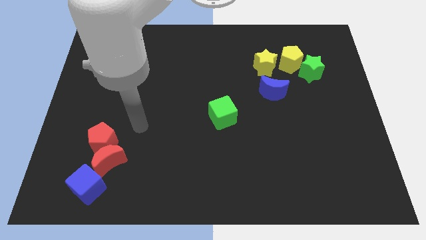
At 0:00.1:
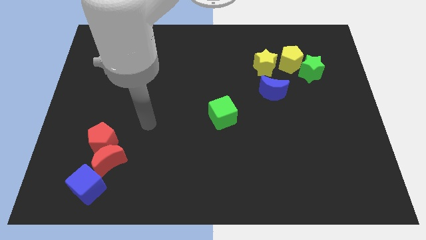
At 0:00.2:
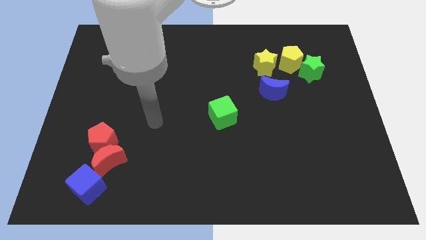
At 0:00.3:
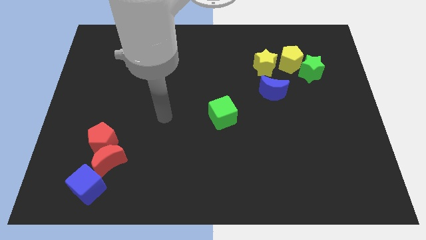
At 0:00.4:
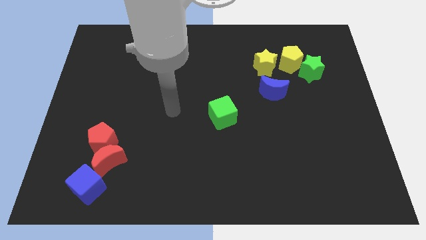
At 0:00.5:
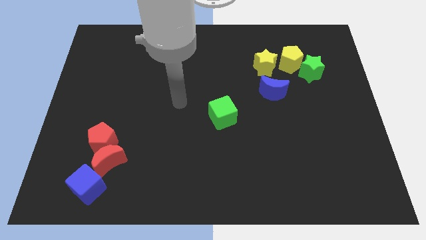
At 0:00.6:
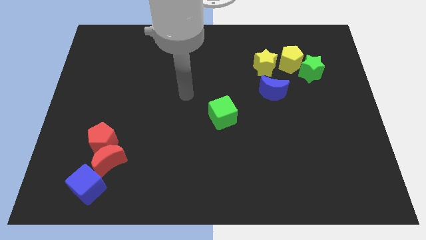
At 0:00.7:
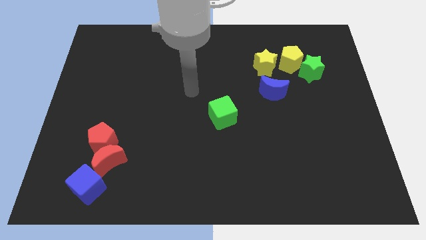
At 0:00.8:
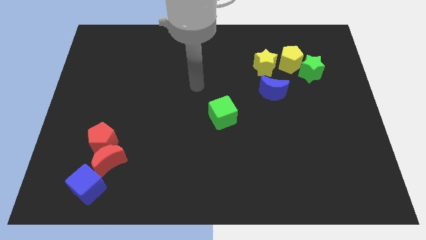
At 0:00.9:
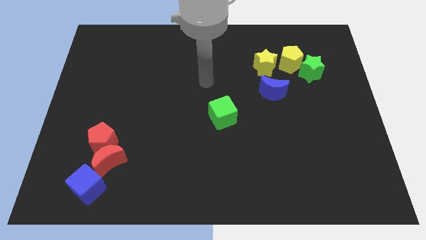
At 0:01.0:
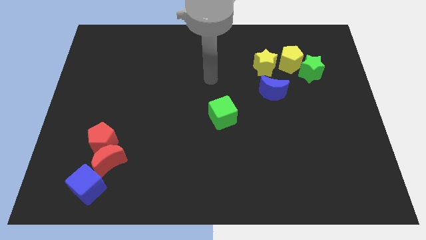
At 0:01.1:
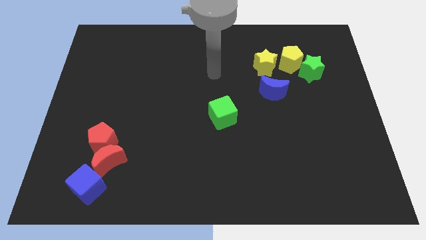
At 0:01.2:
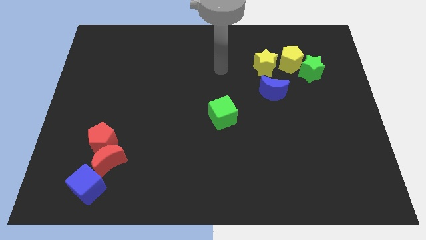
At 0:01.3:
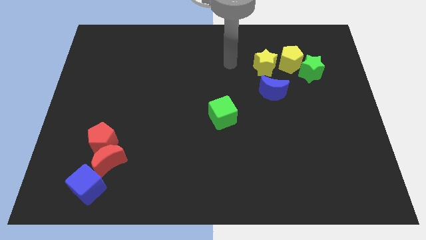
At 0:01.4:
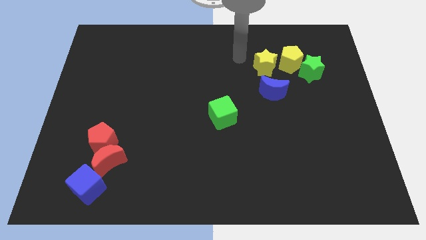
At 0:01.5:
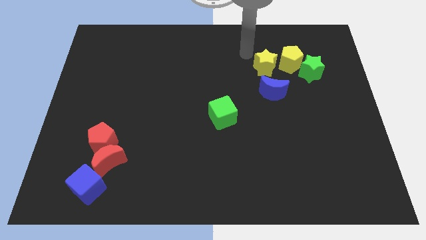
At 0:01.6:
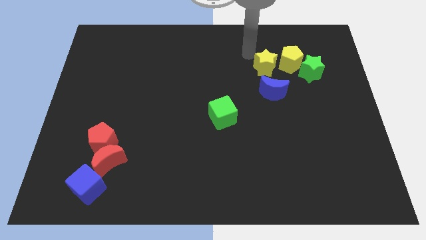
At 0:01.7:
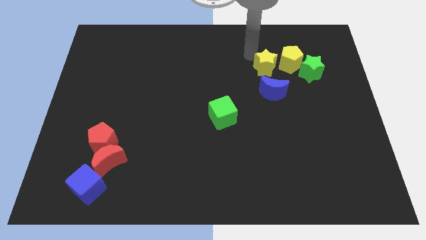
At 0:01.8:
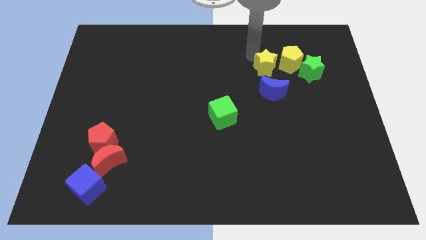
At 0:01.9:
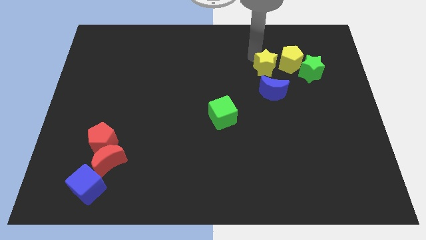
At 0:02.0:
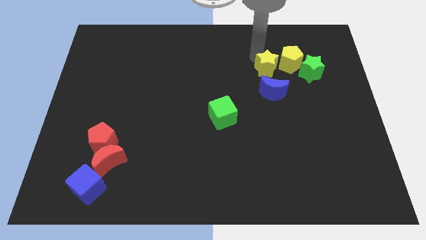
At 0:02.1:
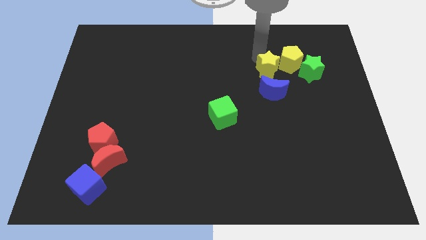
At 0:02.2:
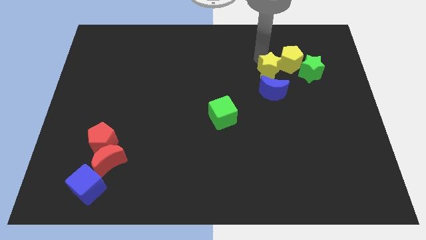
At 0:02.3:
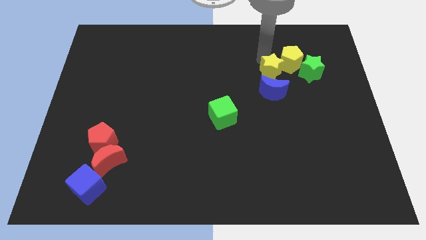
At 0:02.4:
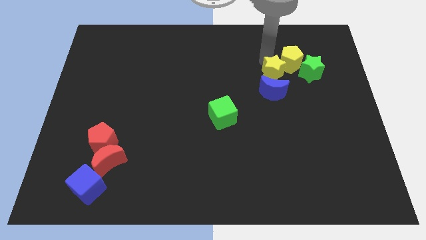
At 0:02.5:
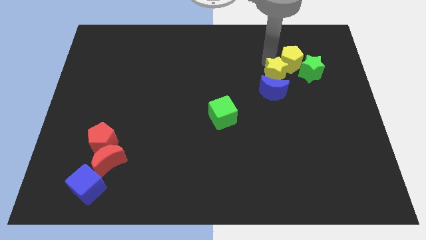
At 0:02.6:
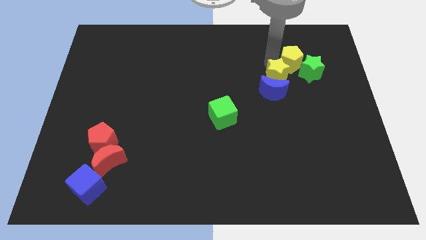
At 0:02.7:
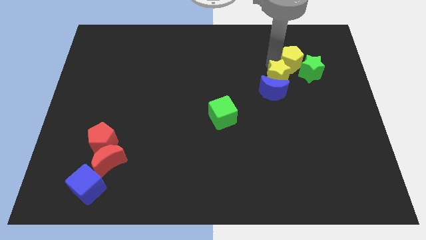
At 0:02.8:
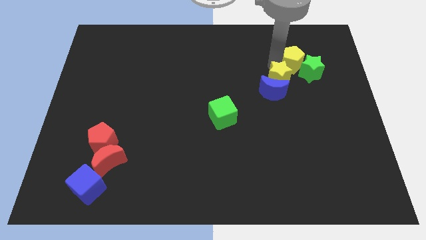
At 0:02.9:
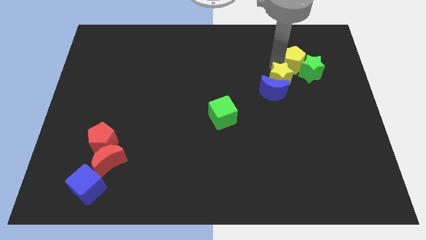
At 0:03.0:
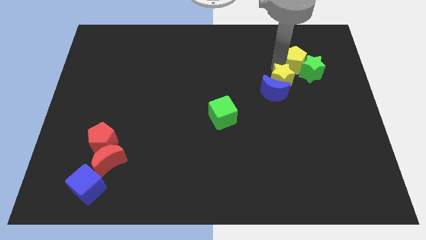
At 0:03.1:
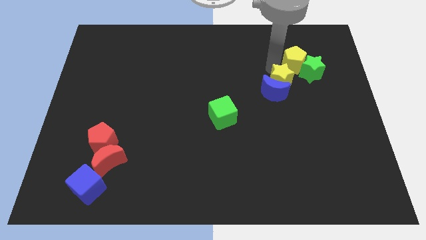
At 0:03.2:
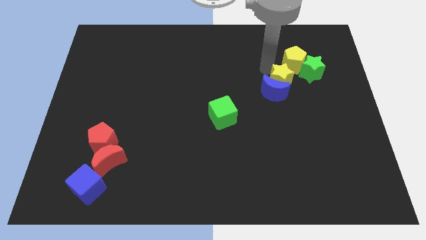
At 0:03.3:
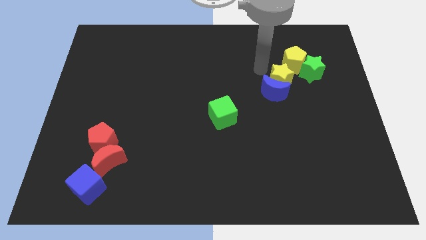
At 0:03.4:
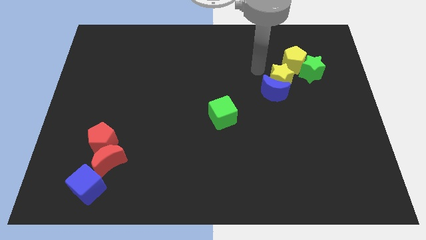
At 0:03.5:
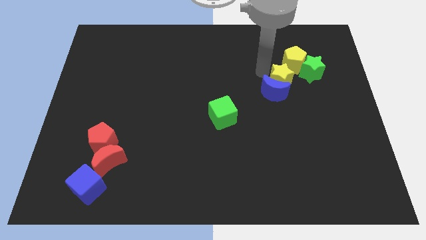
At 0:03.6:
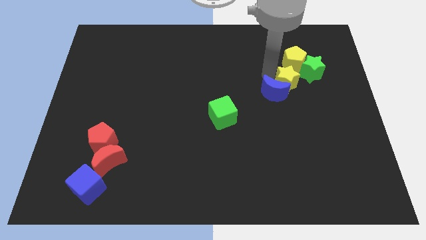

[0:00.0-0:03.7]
slightly move the yellow star downwards and to the right diagonally

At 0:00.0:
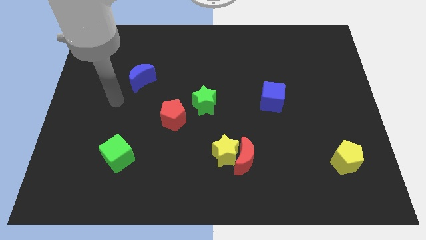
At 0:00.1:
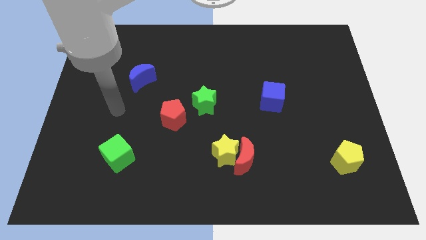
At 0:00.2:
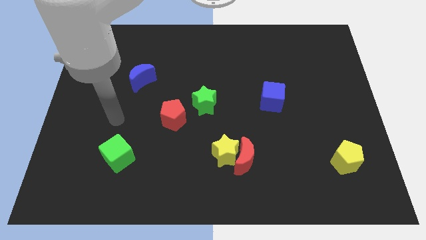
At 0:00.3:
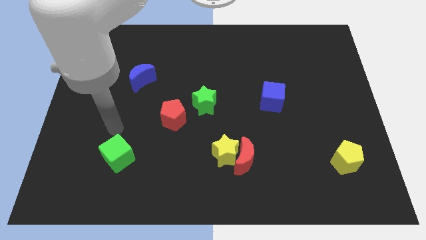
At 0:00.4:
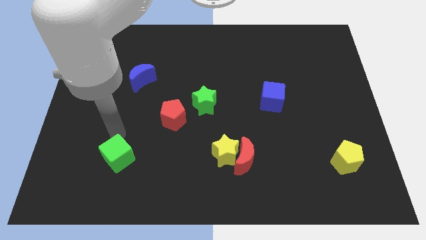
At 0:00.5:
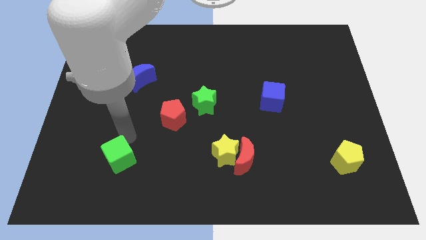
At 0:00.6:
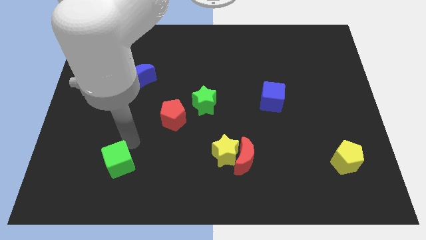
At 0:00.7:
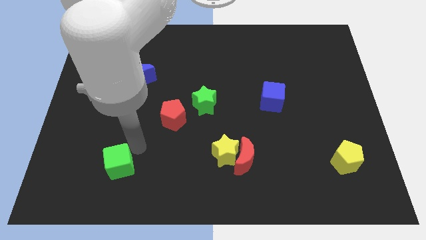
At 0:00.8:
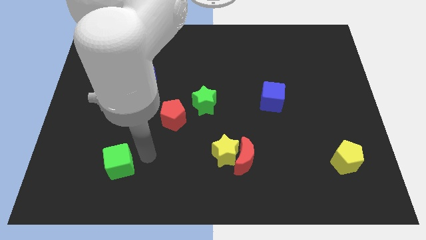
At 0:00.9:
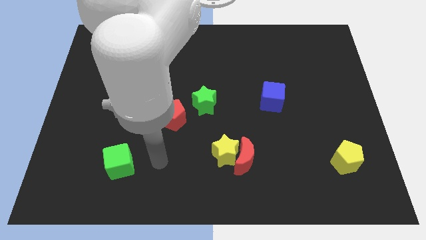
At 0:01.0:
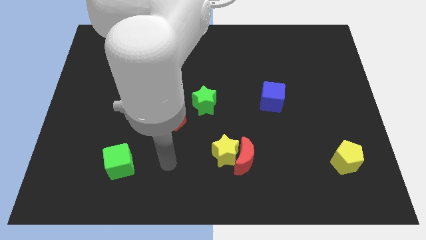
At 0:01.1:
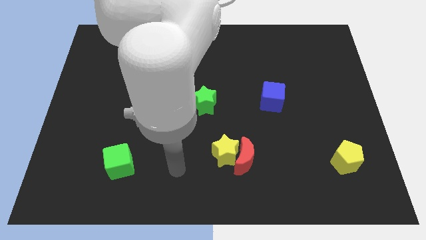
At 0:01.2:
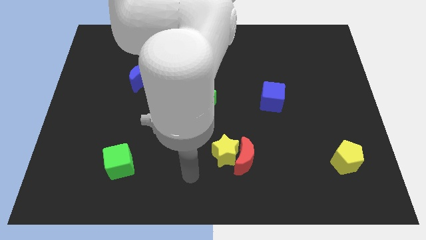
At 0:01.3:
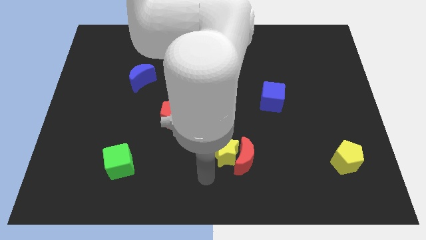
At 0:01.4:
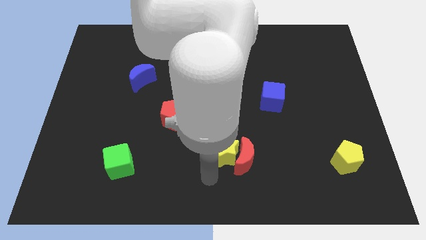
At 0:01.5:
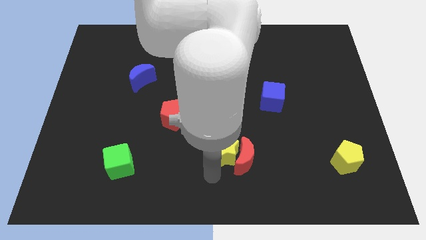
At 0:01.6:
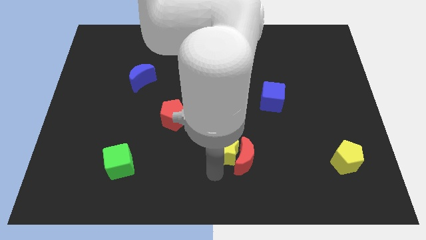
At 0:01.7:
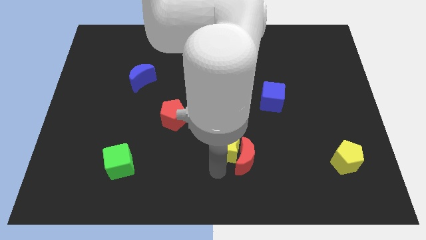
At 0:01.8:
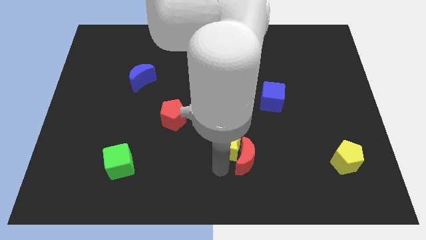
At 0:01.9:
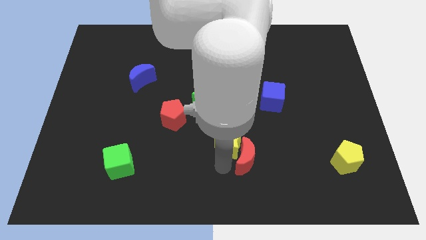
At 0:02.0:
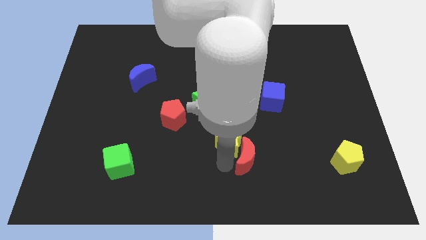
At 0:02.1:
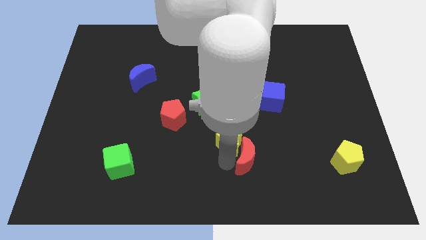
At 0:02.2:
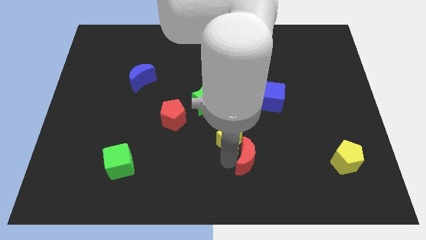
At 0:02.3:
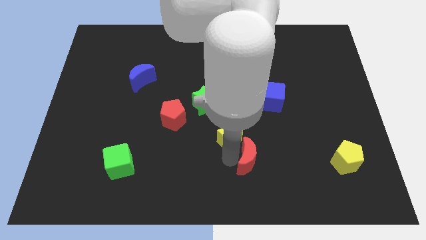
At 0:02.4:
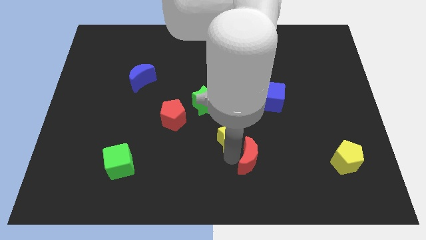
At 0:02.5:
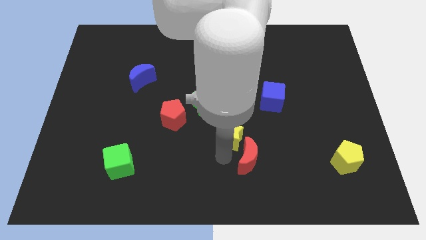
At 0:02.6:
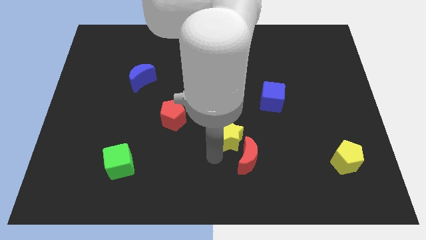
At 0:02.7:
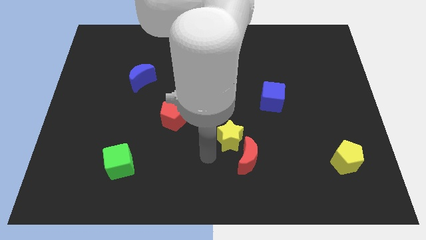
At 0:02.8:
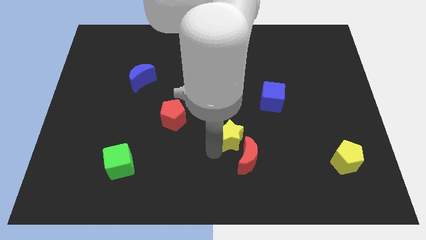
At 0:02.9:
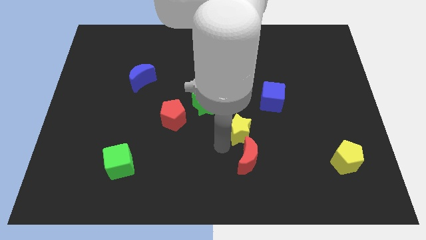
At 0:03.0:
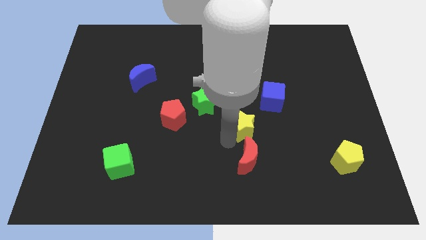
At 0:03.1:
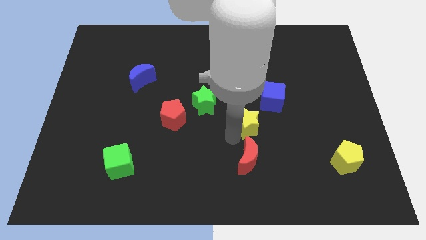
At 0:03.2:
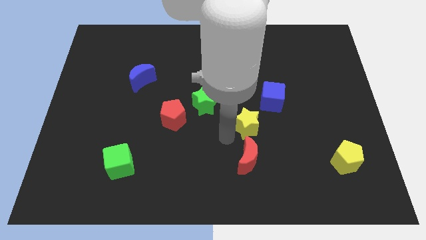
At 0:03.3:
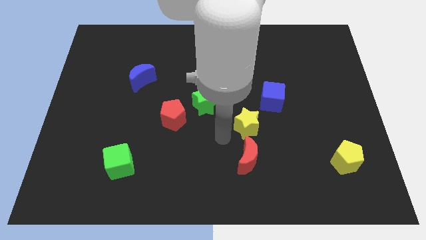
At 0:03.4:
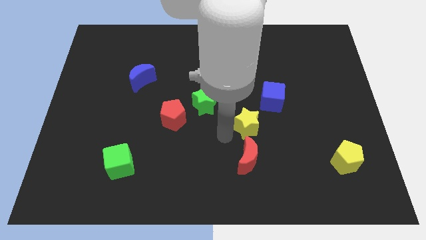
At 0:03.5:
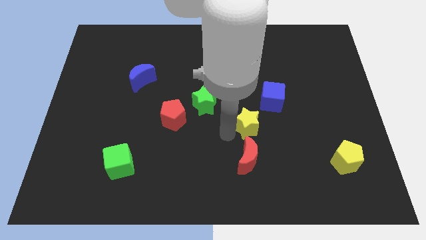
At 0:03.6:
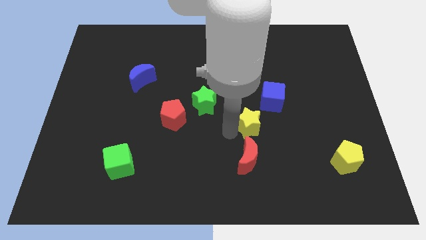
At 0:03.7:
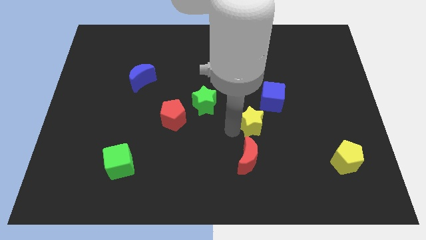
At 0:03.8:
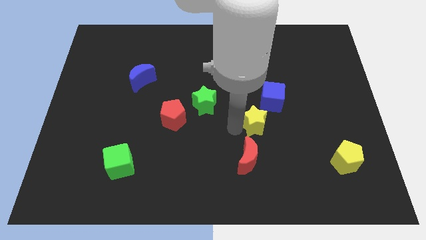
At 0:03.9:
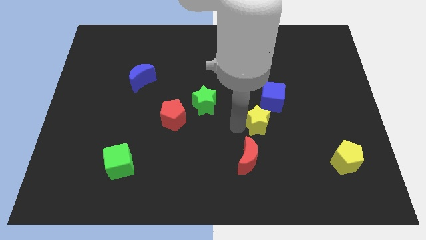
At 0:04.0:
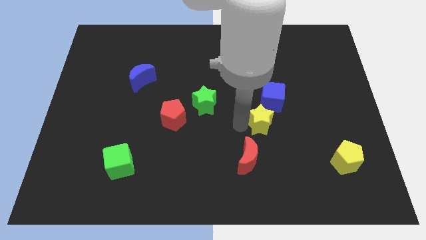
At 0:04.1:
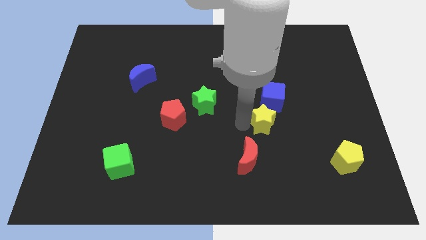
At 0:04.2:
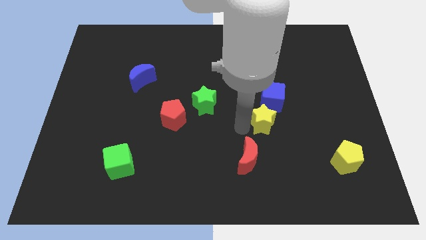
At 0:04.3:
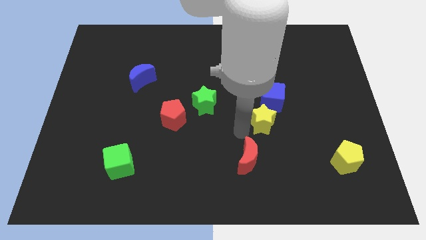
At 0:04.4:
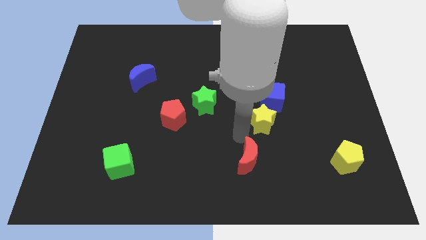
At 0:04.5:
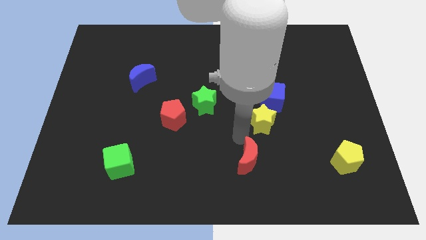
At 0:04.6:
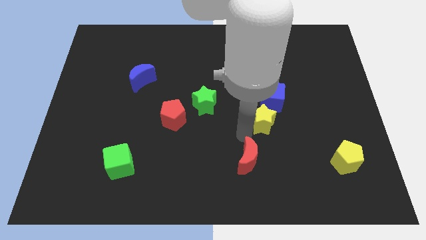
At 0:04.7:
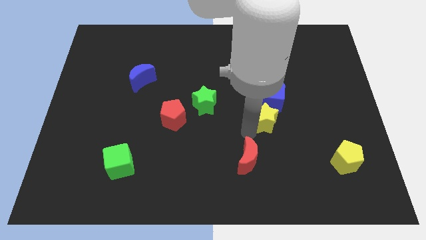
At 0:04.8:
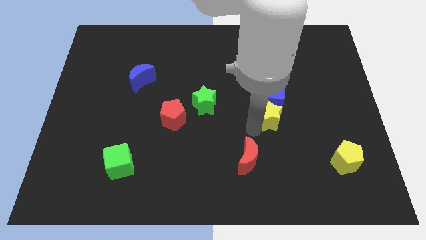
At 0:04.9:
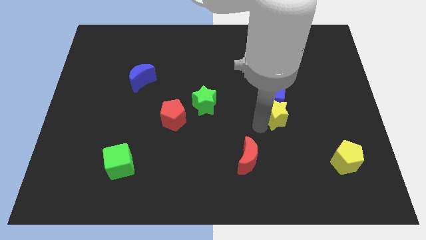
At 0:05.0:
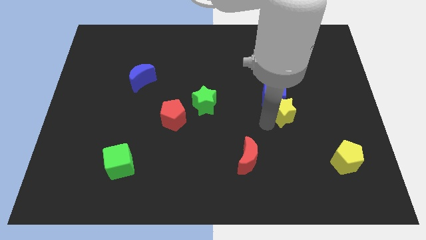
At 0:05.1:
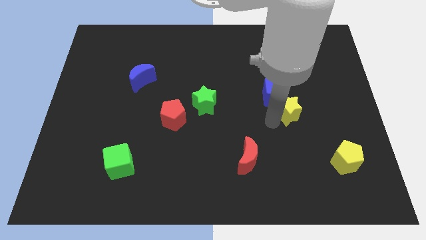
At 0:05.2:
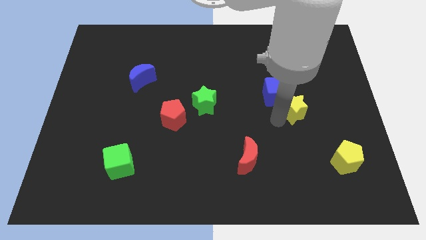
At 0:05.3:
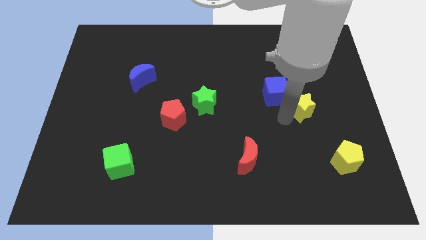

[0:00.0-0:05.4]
slide the yellow star diagonally upwards and right
